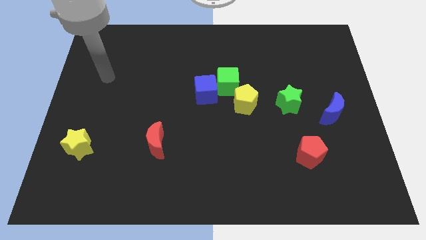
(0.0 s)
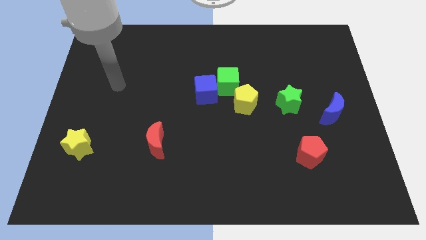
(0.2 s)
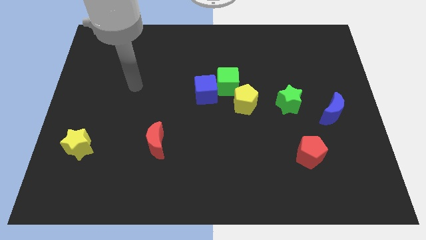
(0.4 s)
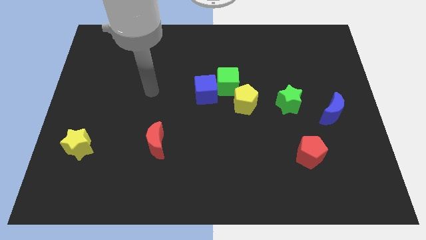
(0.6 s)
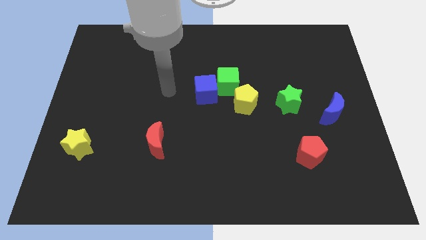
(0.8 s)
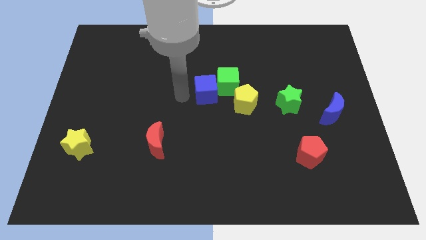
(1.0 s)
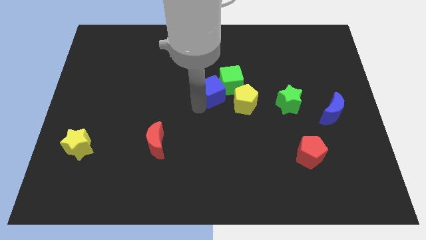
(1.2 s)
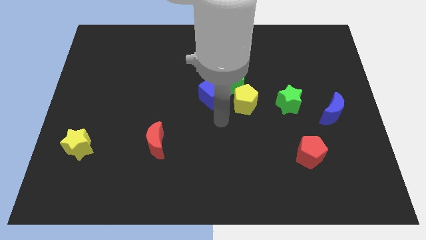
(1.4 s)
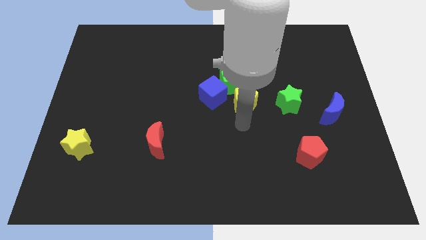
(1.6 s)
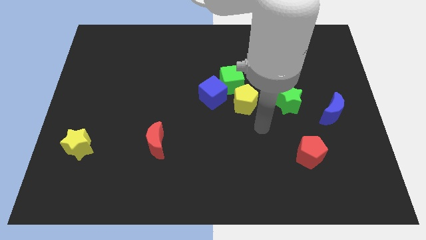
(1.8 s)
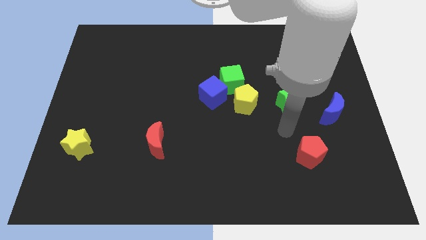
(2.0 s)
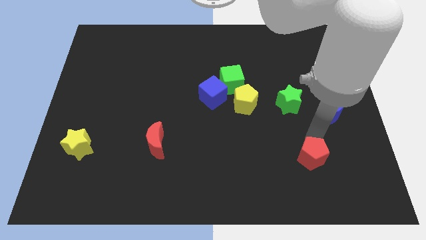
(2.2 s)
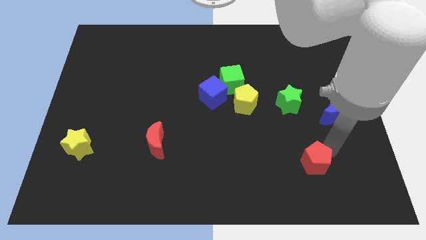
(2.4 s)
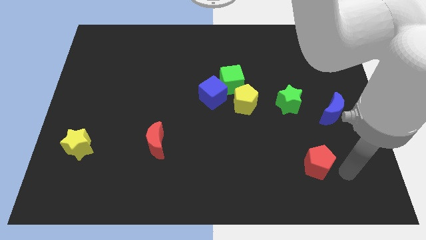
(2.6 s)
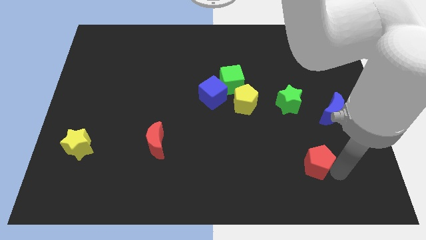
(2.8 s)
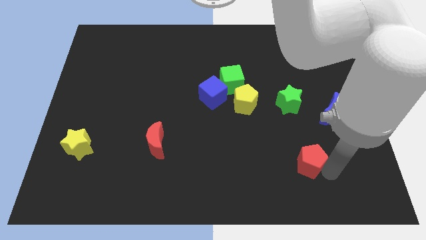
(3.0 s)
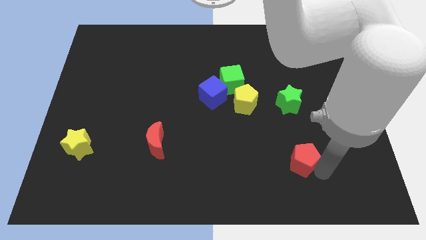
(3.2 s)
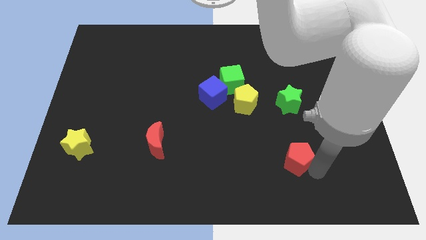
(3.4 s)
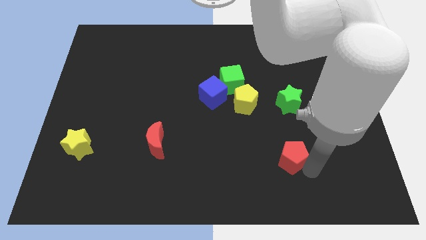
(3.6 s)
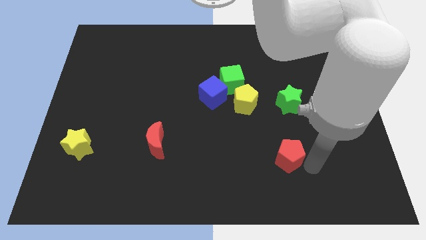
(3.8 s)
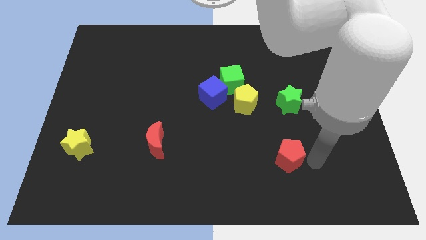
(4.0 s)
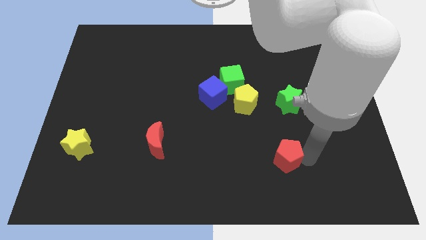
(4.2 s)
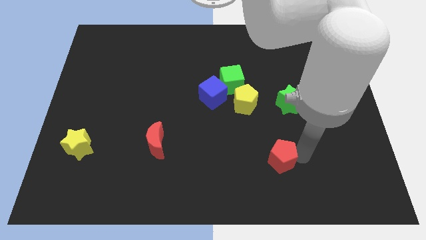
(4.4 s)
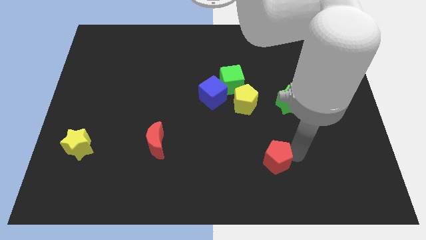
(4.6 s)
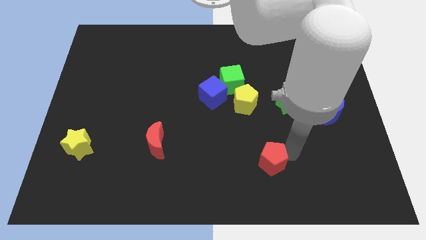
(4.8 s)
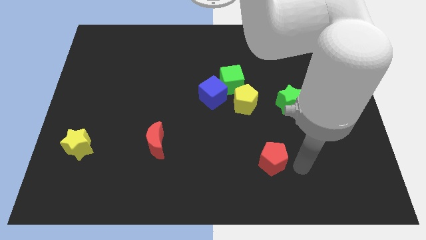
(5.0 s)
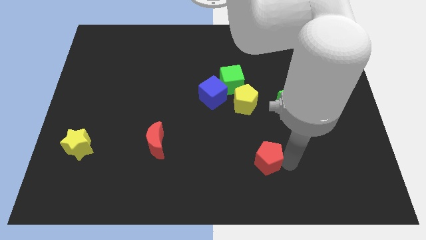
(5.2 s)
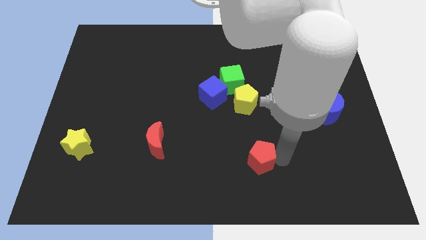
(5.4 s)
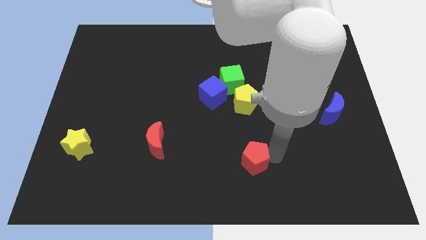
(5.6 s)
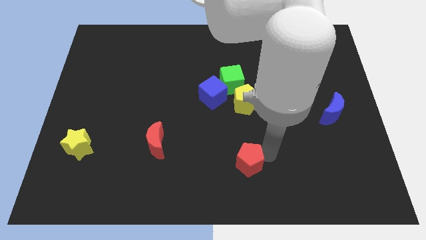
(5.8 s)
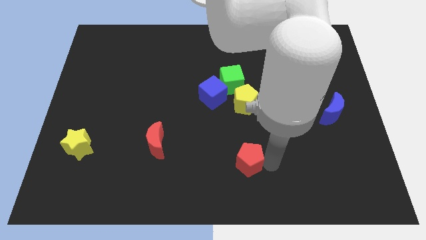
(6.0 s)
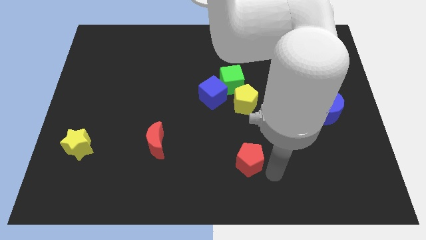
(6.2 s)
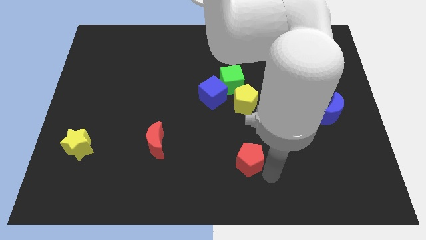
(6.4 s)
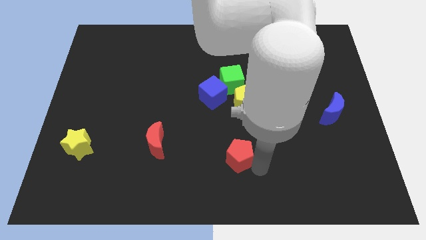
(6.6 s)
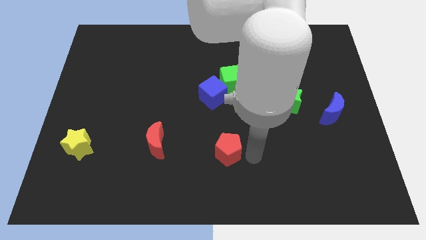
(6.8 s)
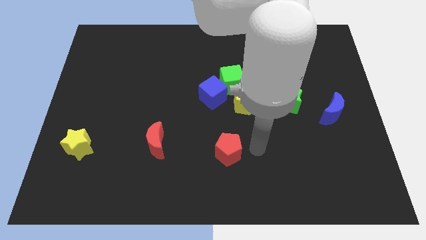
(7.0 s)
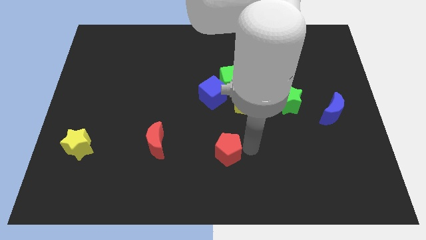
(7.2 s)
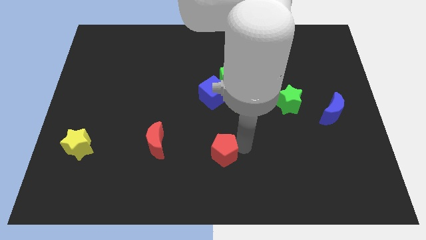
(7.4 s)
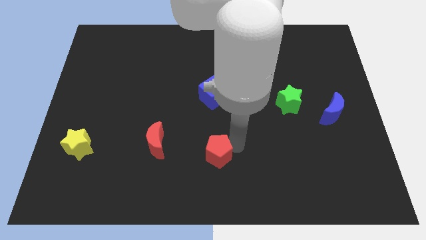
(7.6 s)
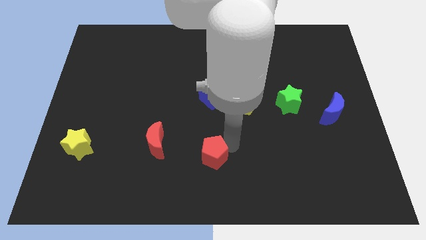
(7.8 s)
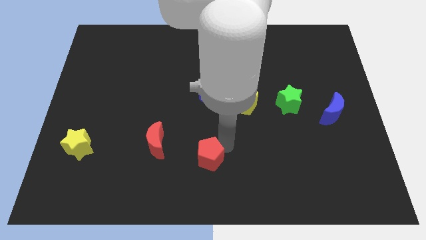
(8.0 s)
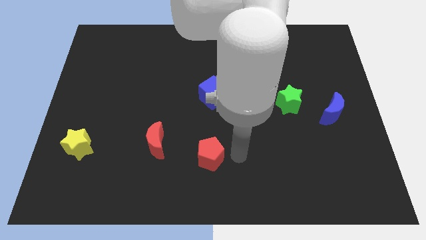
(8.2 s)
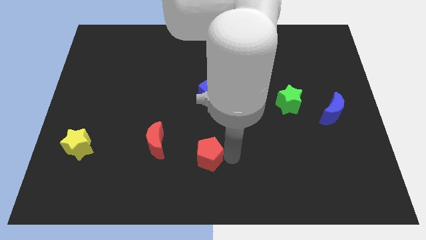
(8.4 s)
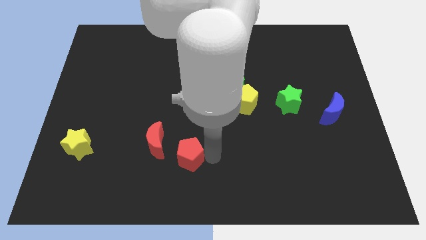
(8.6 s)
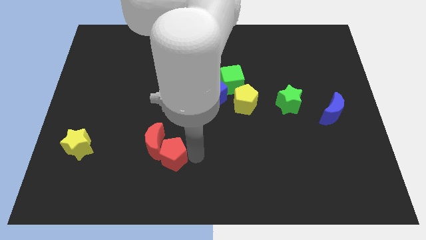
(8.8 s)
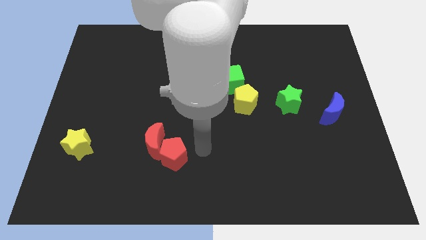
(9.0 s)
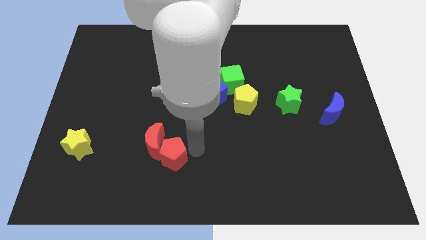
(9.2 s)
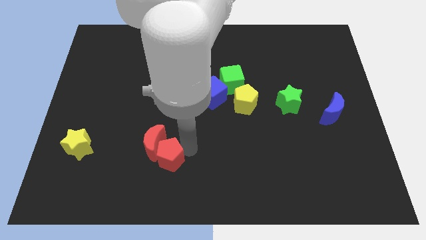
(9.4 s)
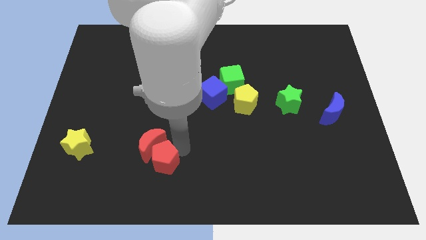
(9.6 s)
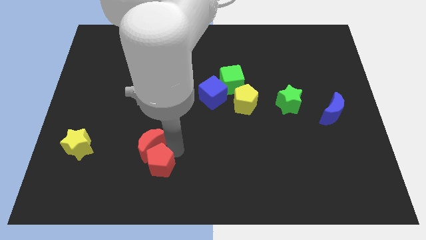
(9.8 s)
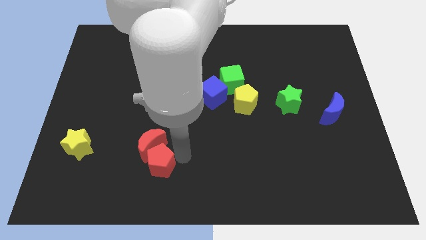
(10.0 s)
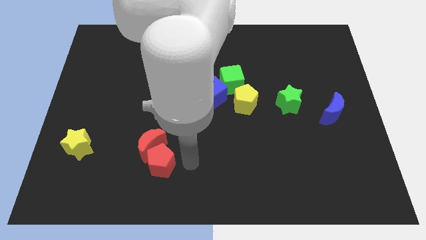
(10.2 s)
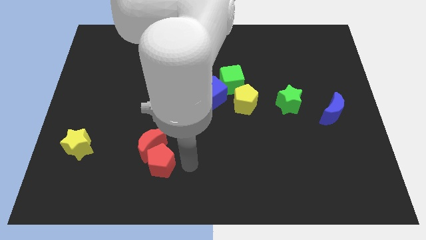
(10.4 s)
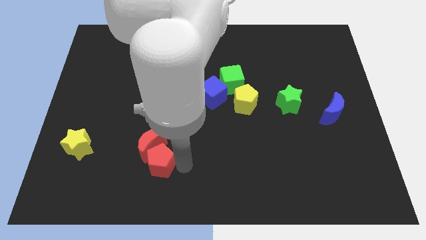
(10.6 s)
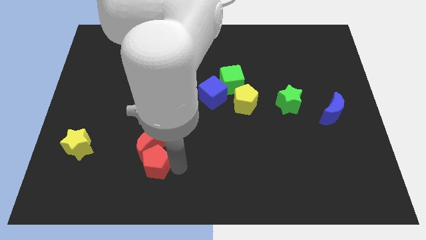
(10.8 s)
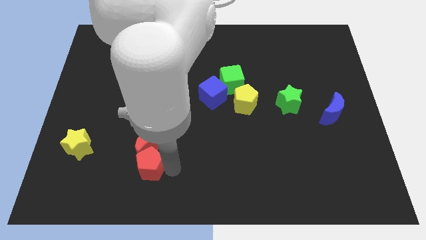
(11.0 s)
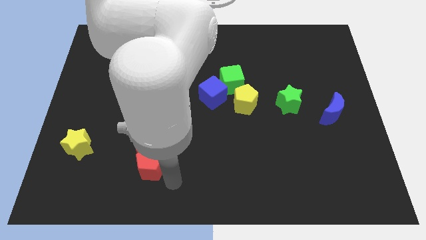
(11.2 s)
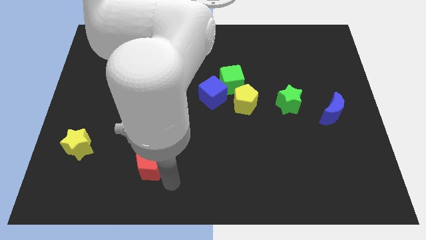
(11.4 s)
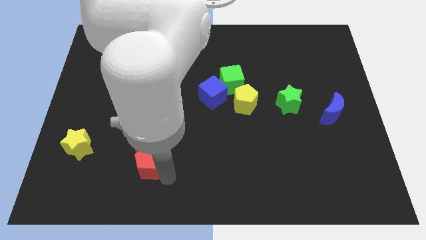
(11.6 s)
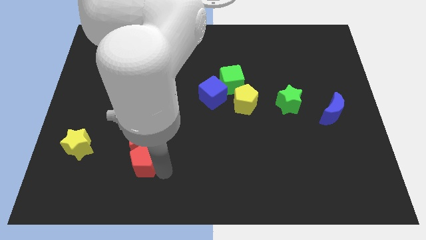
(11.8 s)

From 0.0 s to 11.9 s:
put the red pentagon to the right of the yellow star
